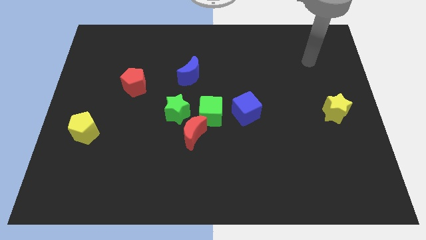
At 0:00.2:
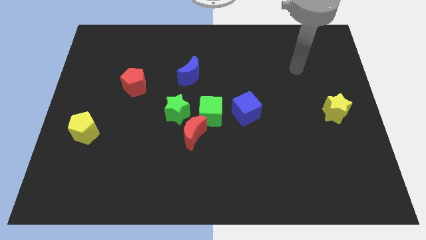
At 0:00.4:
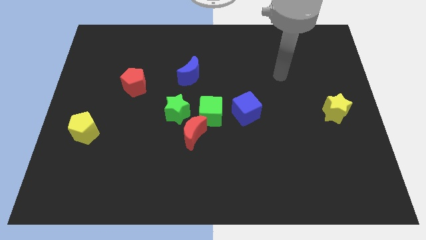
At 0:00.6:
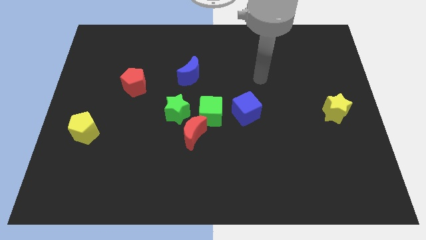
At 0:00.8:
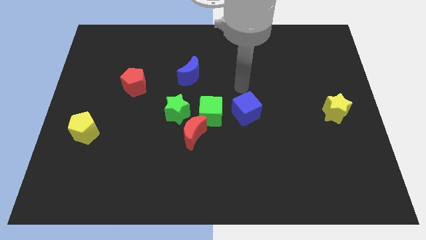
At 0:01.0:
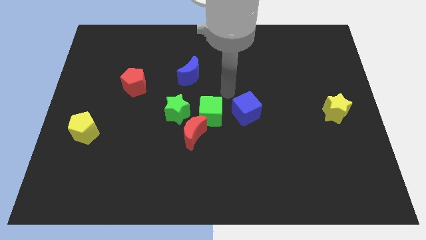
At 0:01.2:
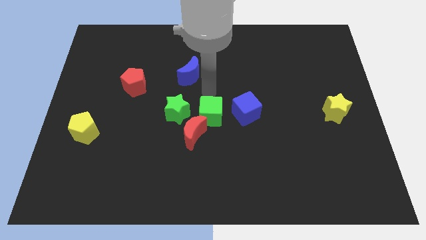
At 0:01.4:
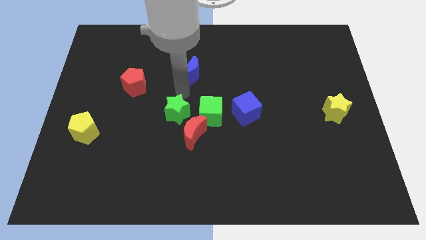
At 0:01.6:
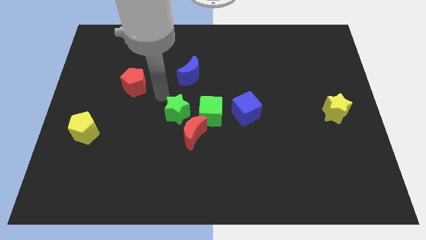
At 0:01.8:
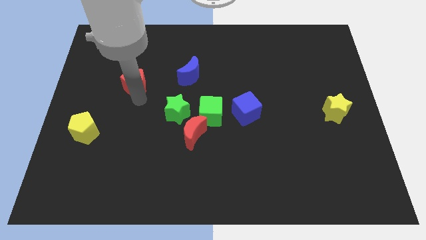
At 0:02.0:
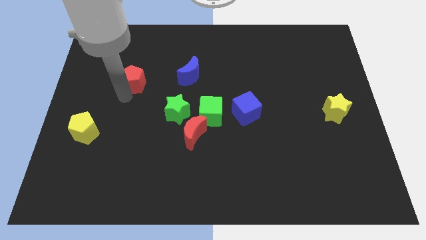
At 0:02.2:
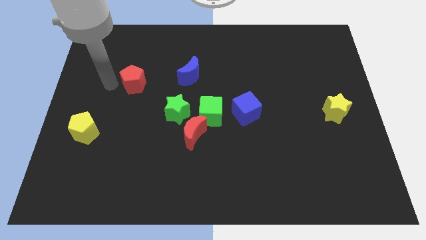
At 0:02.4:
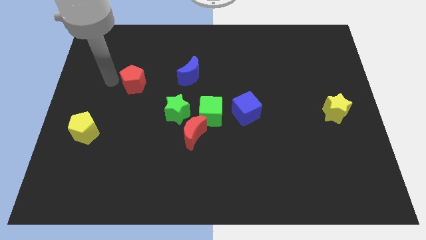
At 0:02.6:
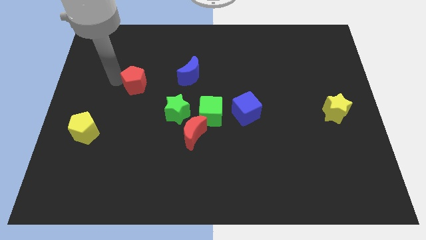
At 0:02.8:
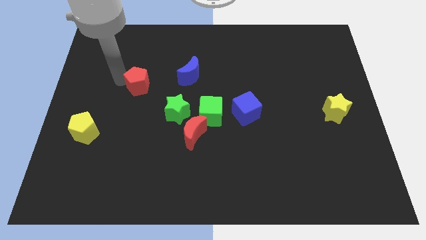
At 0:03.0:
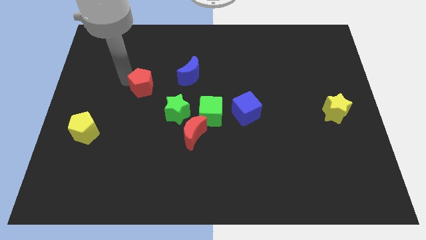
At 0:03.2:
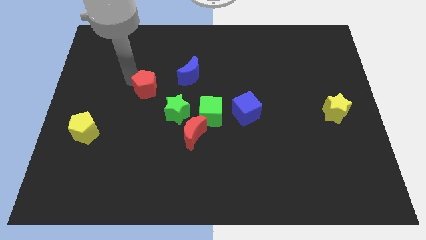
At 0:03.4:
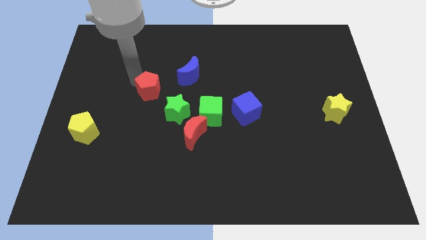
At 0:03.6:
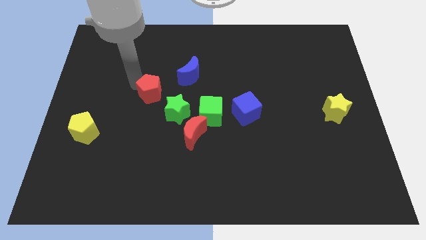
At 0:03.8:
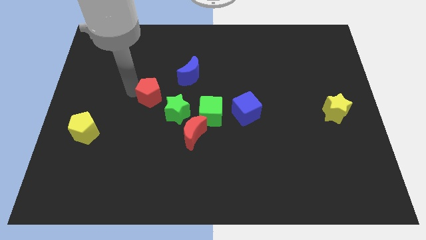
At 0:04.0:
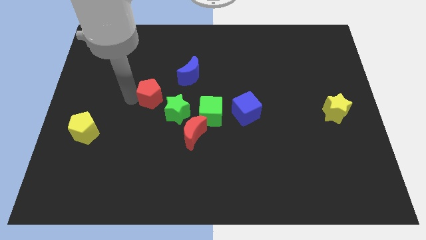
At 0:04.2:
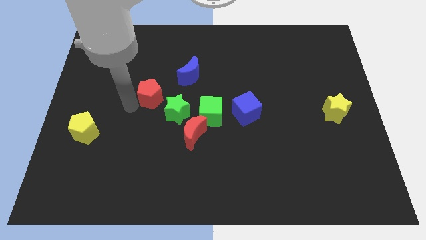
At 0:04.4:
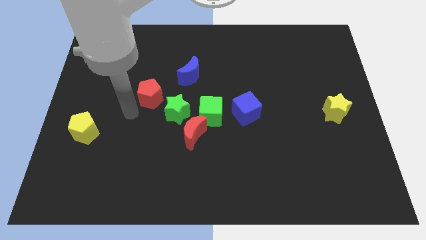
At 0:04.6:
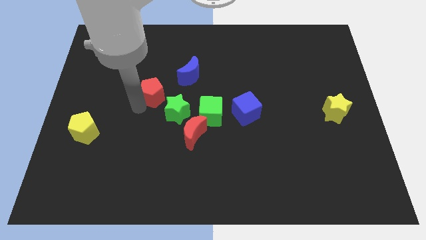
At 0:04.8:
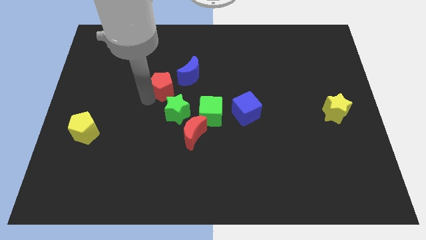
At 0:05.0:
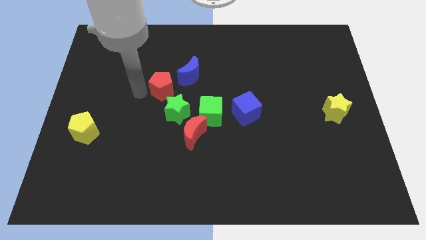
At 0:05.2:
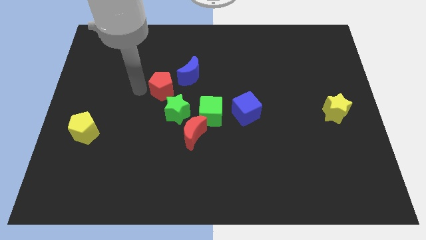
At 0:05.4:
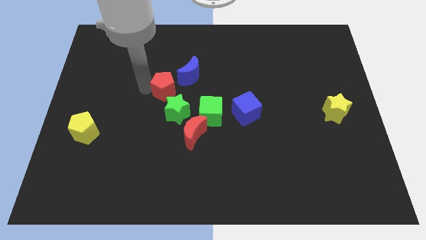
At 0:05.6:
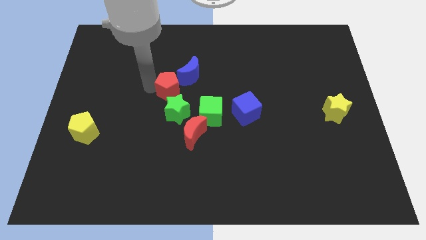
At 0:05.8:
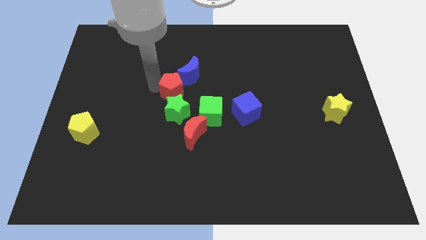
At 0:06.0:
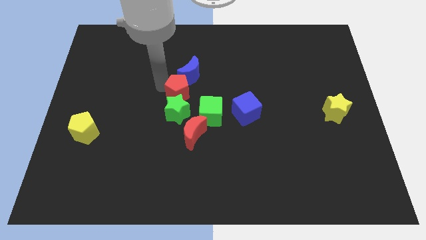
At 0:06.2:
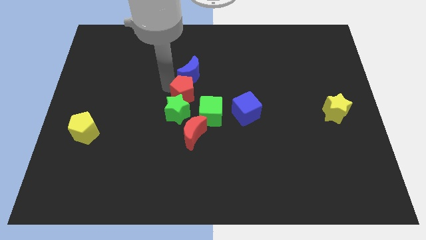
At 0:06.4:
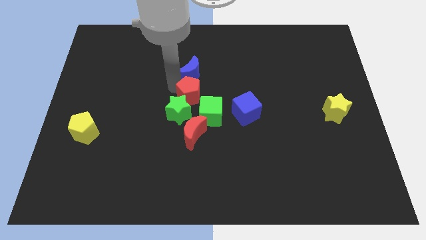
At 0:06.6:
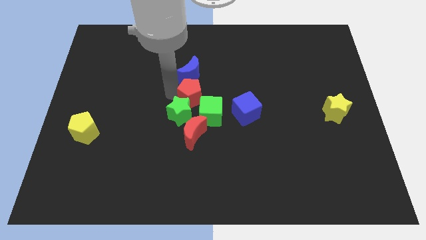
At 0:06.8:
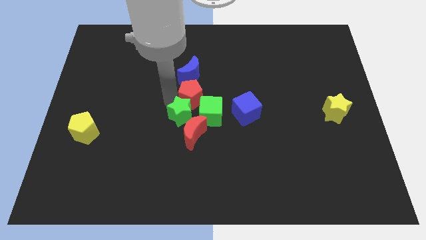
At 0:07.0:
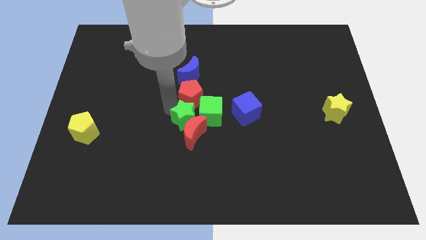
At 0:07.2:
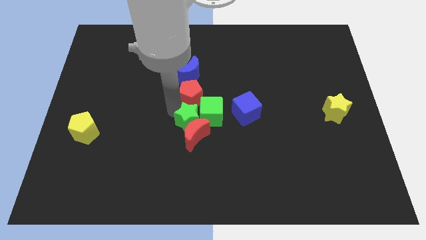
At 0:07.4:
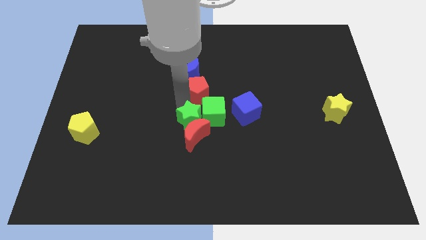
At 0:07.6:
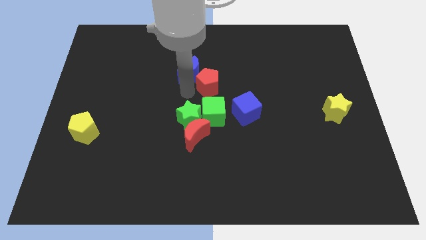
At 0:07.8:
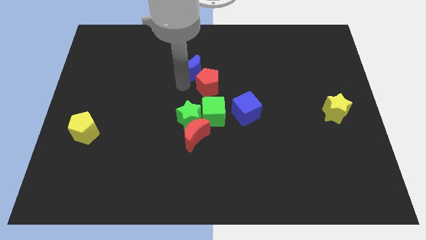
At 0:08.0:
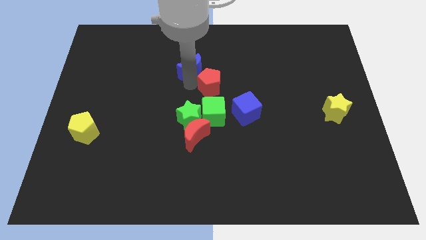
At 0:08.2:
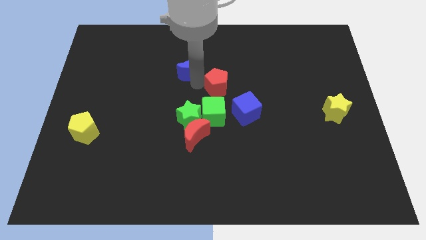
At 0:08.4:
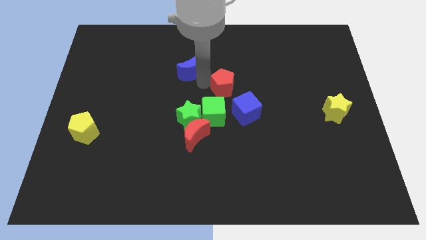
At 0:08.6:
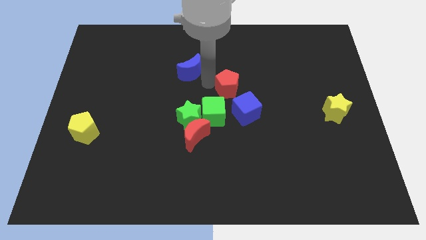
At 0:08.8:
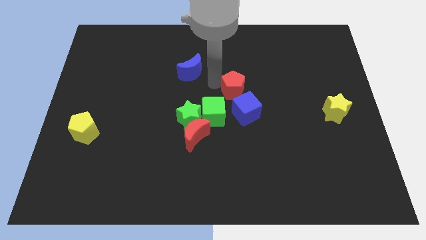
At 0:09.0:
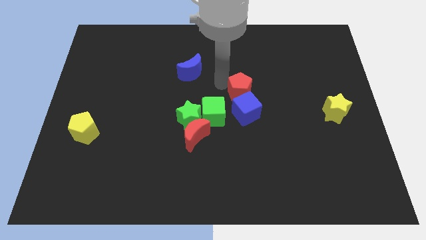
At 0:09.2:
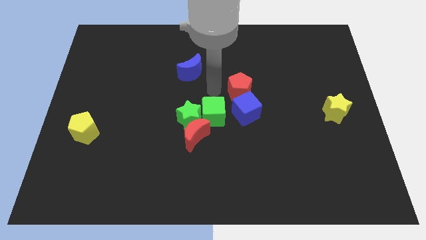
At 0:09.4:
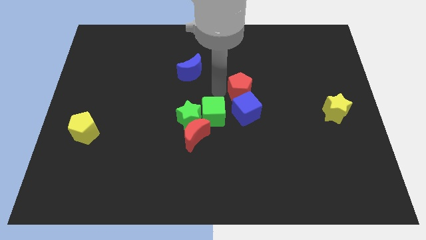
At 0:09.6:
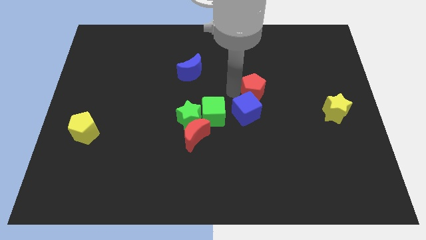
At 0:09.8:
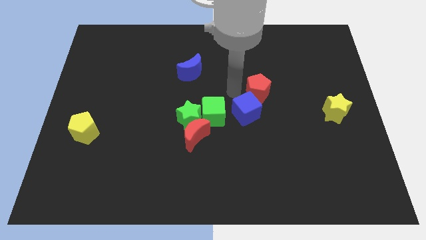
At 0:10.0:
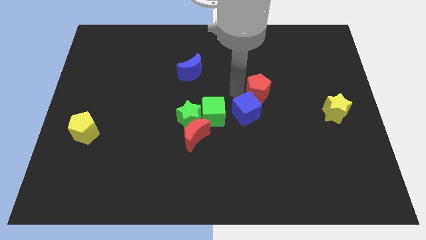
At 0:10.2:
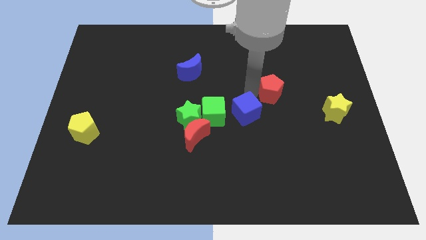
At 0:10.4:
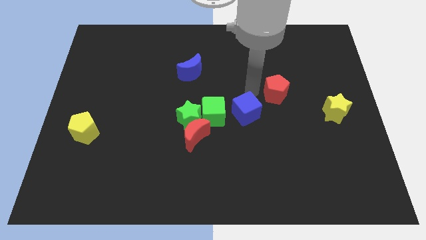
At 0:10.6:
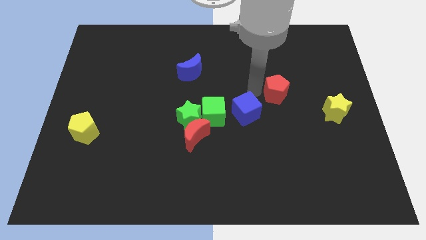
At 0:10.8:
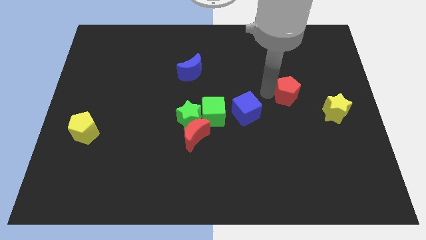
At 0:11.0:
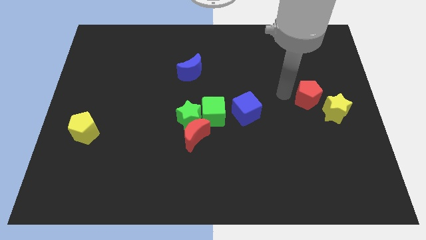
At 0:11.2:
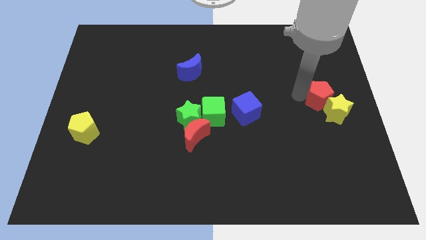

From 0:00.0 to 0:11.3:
slide the red pentagon to the yellow star

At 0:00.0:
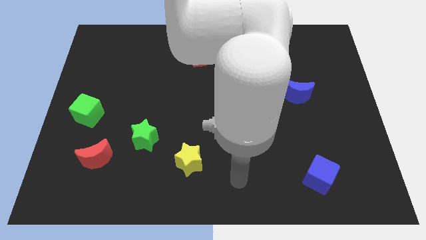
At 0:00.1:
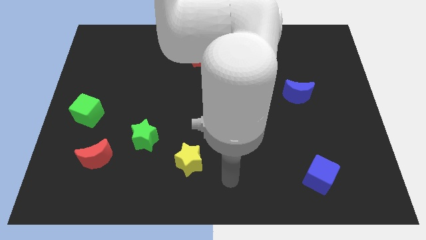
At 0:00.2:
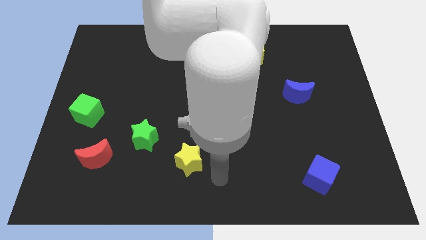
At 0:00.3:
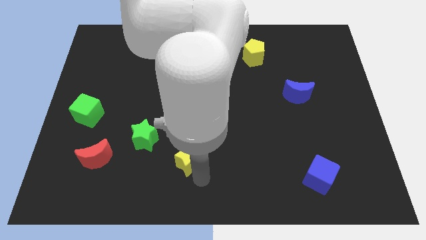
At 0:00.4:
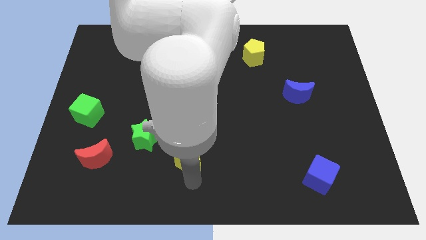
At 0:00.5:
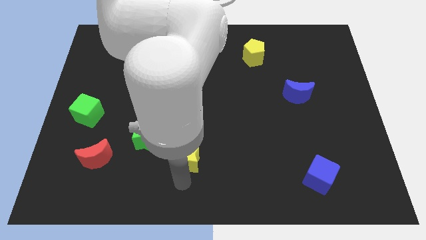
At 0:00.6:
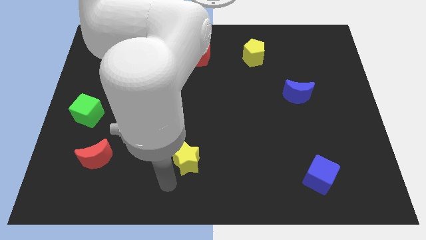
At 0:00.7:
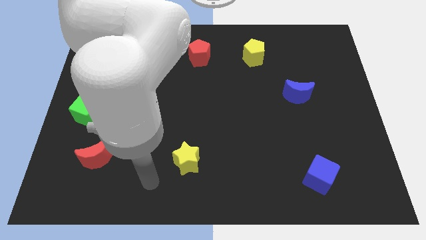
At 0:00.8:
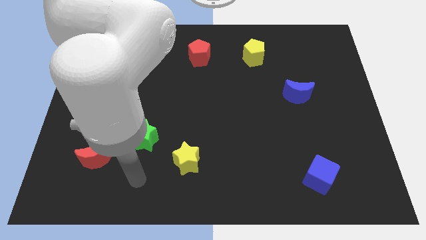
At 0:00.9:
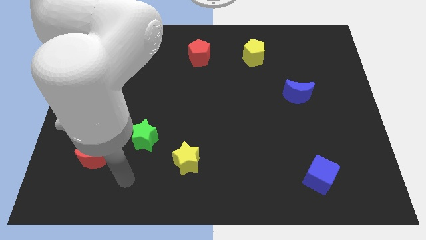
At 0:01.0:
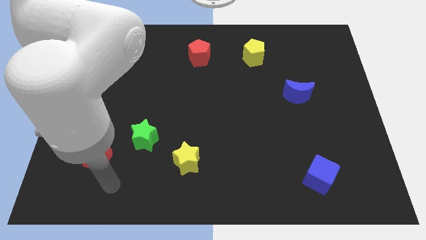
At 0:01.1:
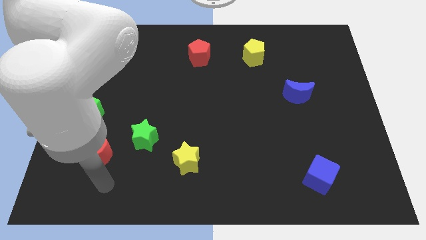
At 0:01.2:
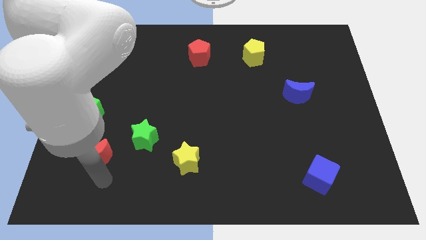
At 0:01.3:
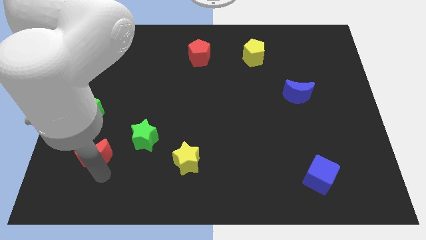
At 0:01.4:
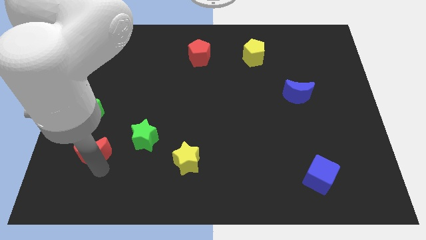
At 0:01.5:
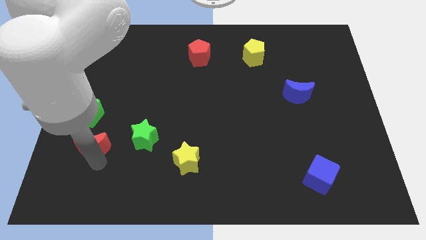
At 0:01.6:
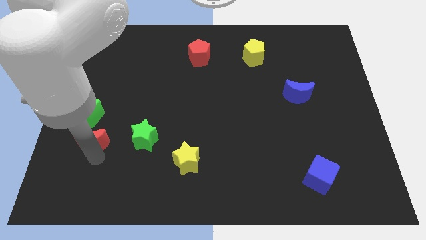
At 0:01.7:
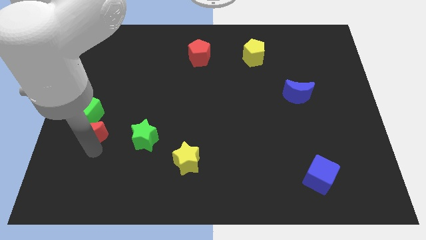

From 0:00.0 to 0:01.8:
push the red moon next to the green cube
